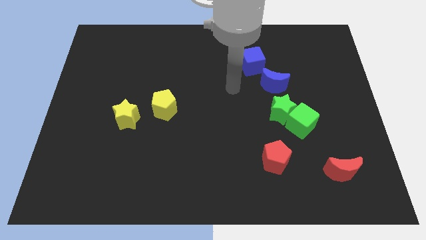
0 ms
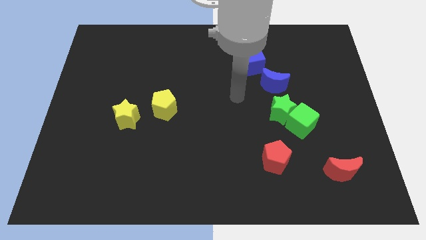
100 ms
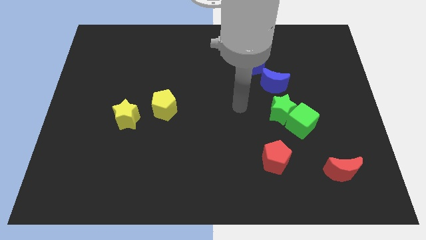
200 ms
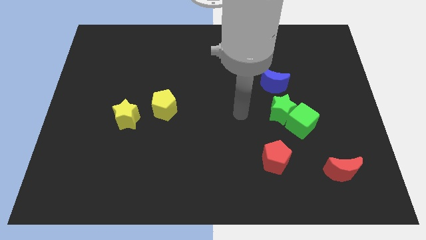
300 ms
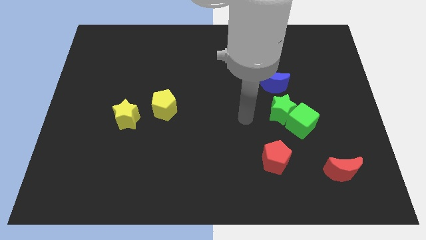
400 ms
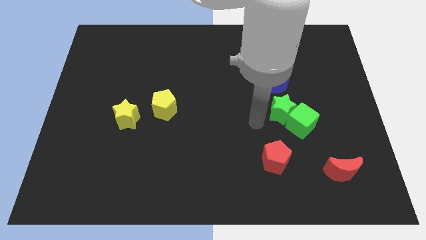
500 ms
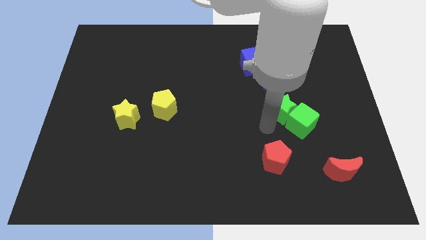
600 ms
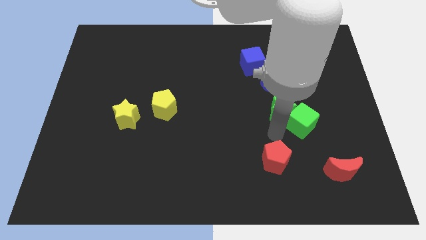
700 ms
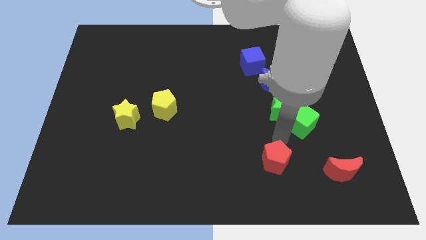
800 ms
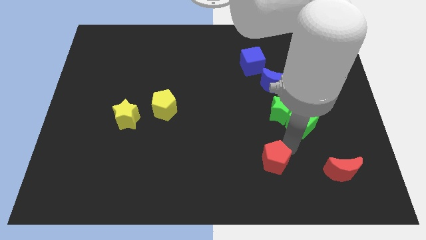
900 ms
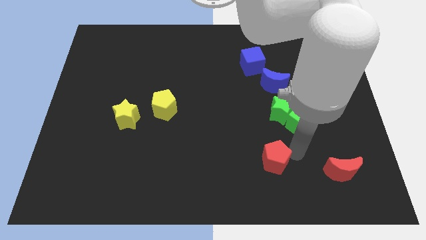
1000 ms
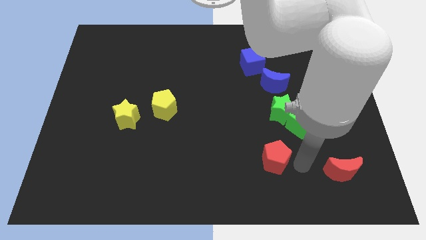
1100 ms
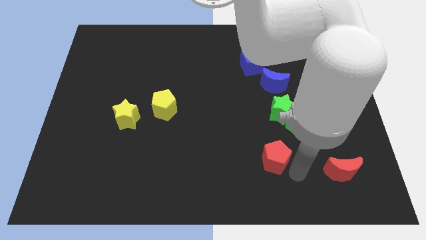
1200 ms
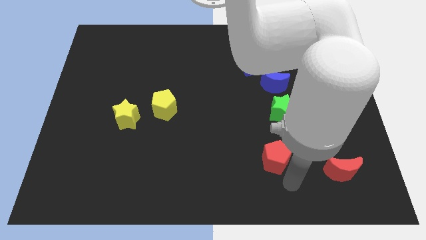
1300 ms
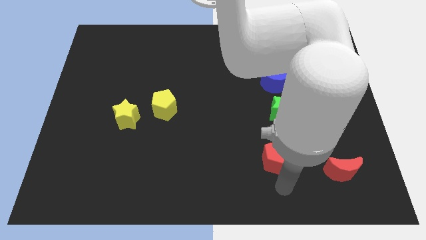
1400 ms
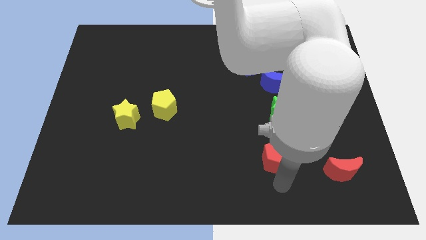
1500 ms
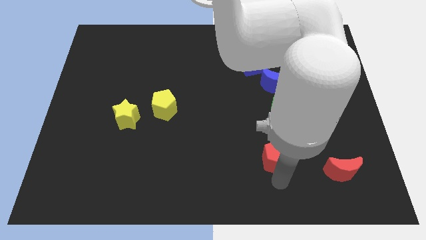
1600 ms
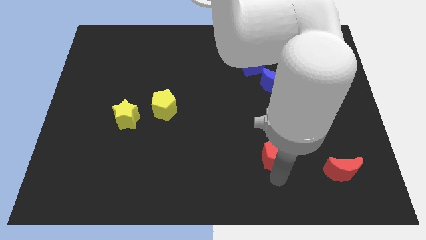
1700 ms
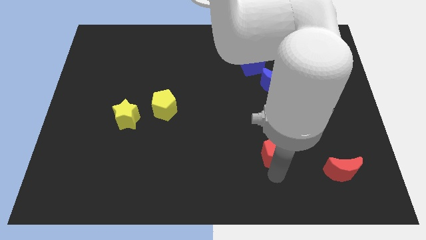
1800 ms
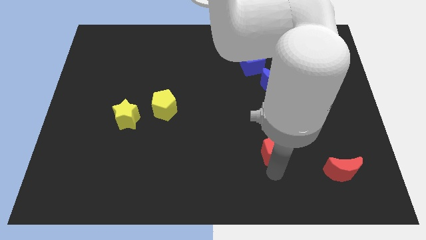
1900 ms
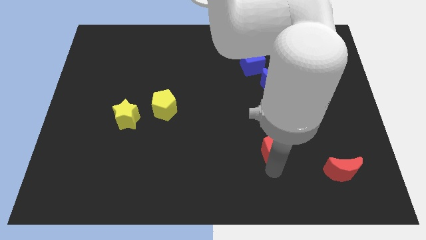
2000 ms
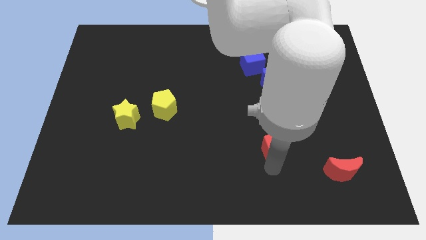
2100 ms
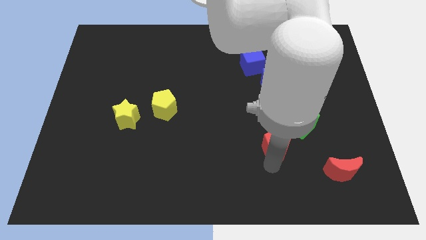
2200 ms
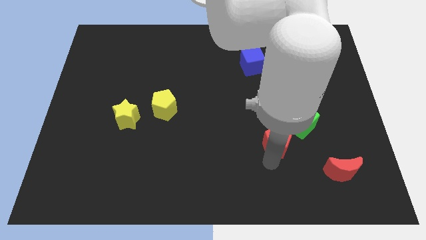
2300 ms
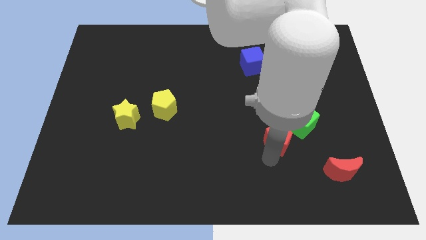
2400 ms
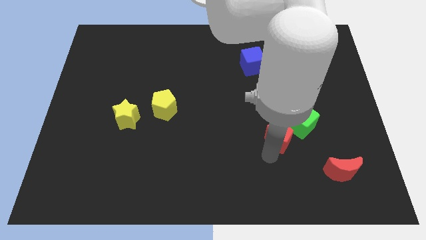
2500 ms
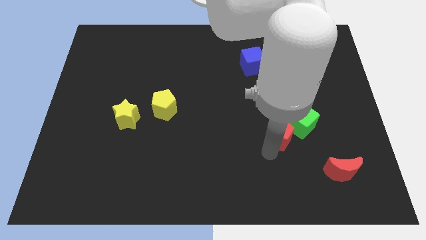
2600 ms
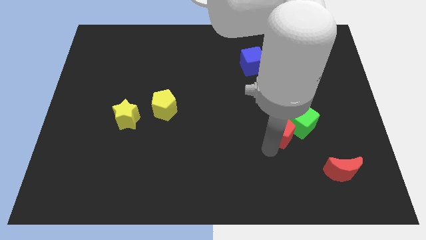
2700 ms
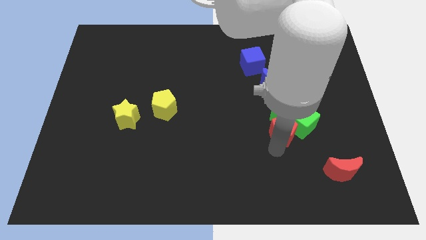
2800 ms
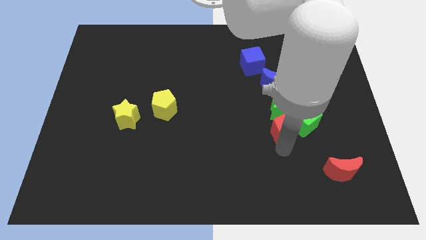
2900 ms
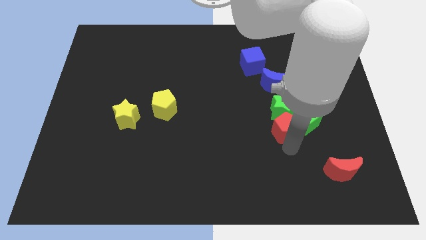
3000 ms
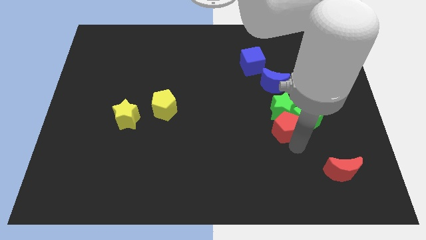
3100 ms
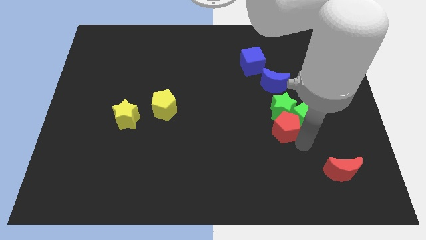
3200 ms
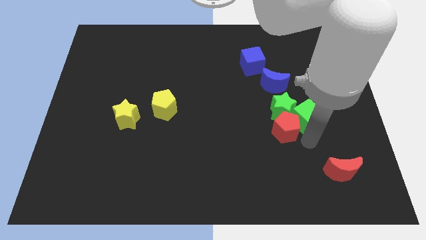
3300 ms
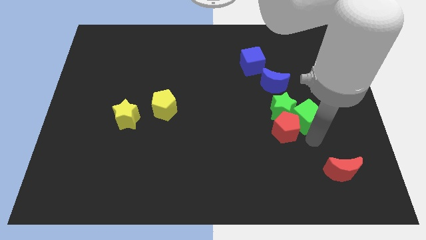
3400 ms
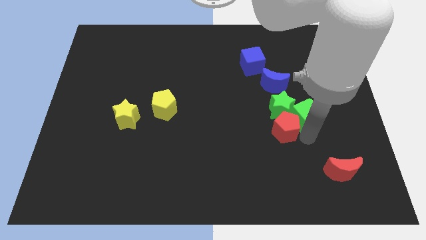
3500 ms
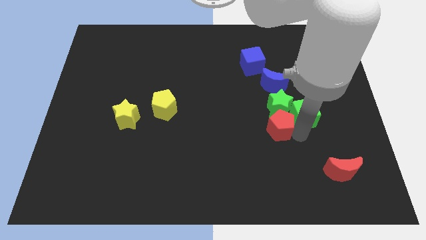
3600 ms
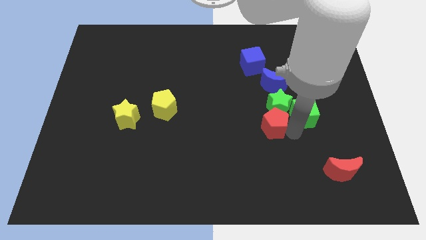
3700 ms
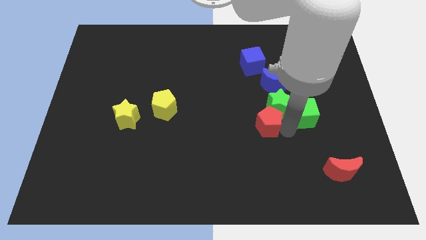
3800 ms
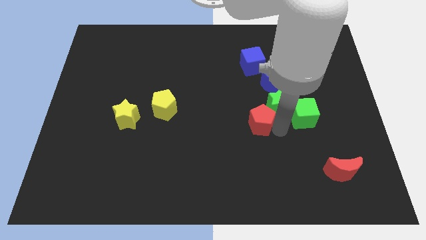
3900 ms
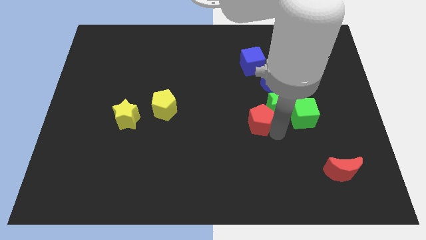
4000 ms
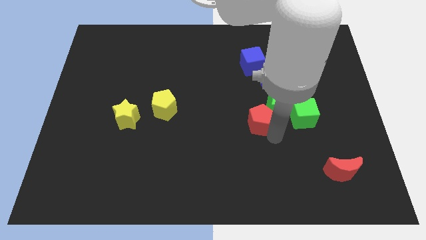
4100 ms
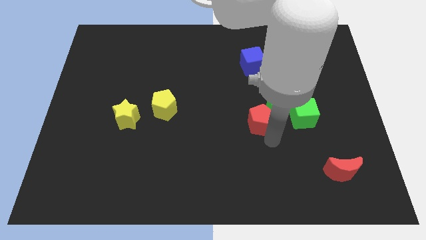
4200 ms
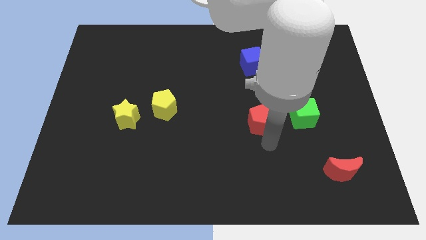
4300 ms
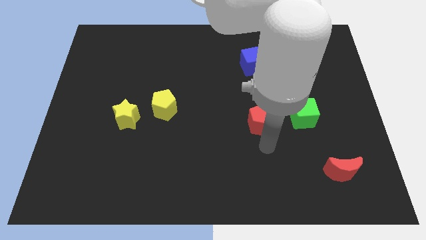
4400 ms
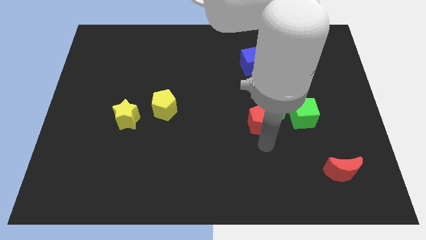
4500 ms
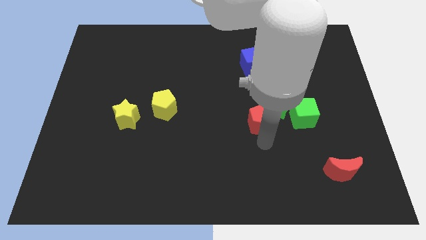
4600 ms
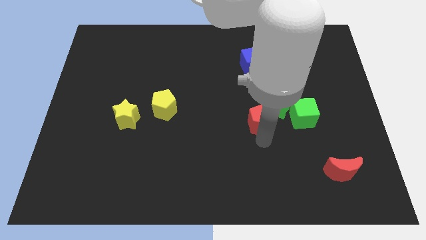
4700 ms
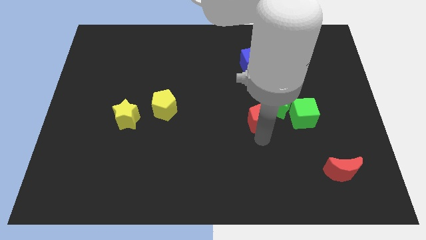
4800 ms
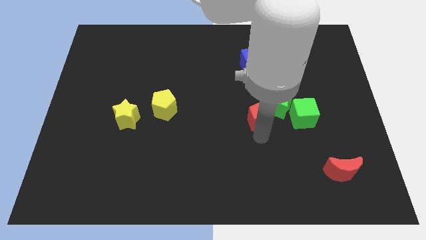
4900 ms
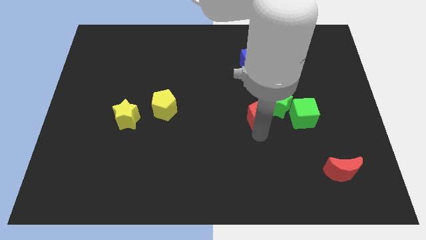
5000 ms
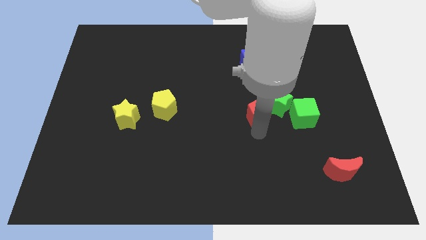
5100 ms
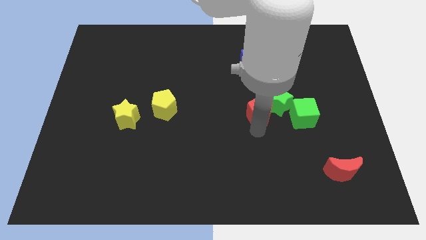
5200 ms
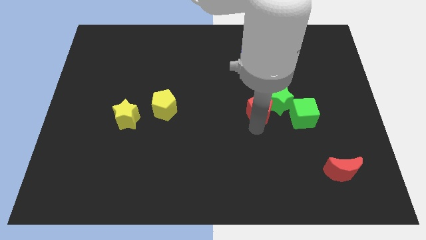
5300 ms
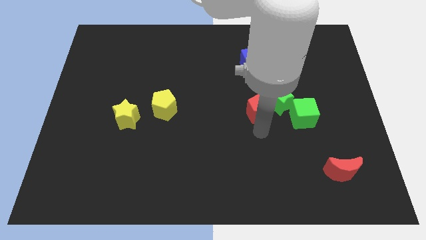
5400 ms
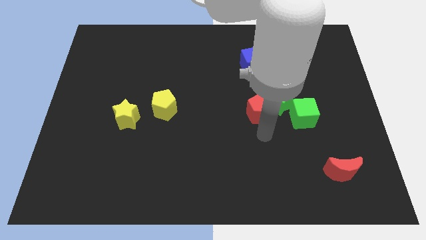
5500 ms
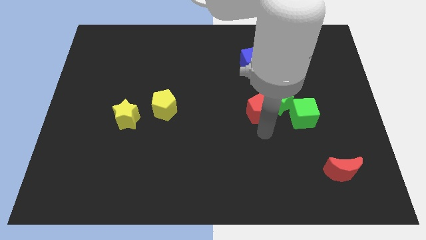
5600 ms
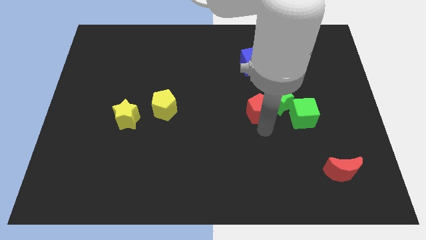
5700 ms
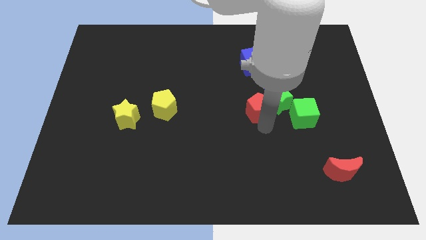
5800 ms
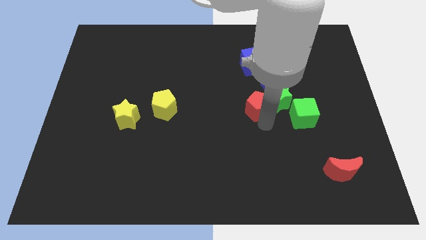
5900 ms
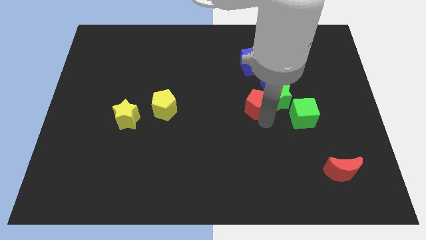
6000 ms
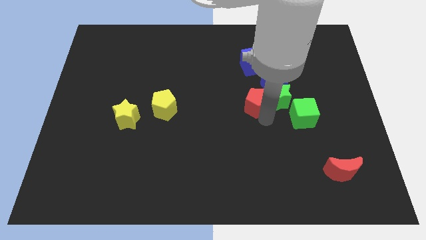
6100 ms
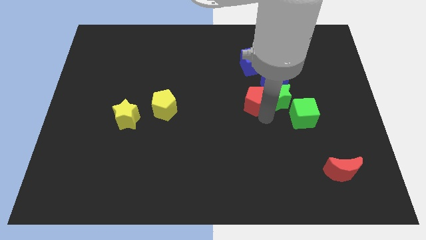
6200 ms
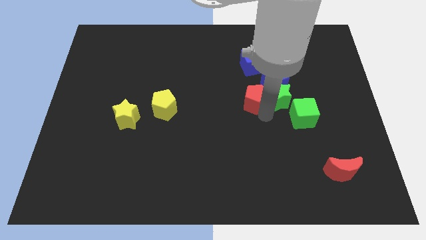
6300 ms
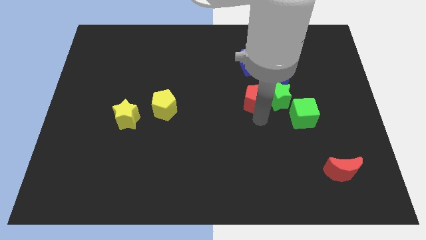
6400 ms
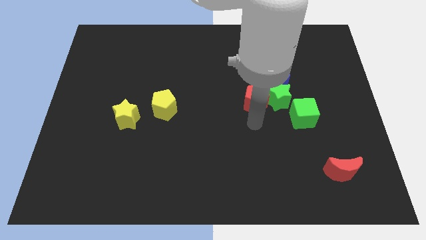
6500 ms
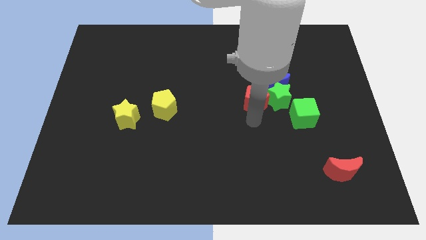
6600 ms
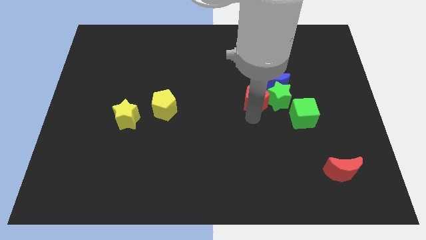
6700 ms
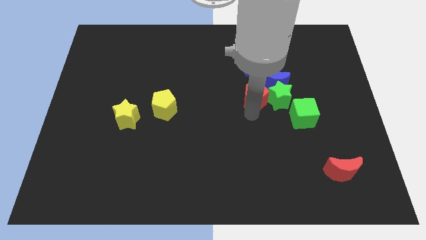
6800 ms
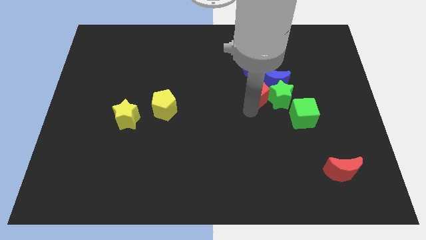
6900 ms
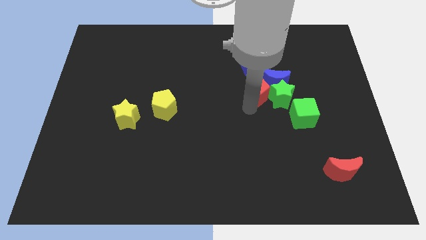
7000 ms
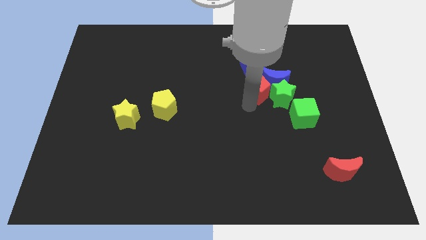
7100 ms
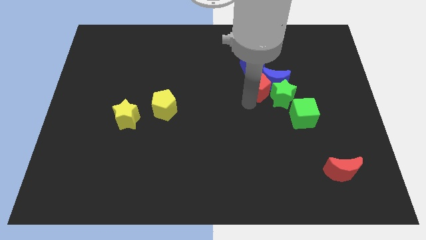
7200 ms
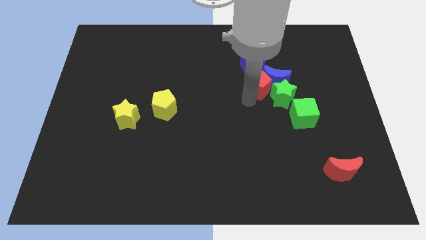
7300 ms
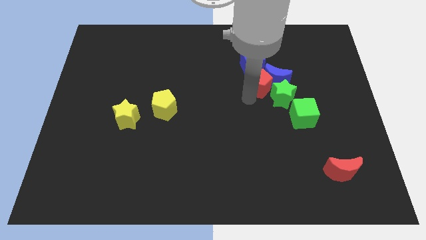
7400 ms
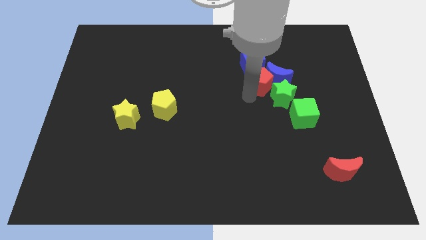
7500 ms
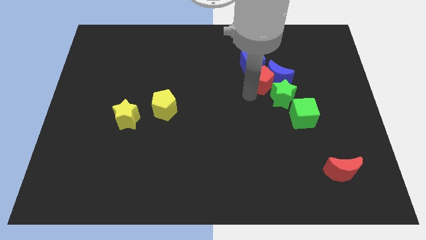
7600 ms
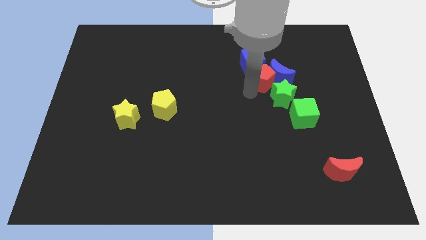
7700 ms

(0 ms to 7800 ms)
slide the red pentagon close to the blue cube
